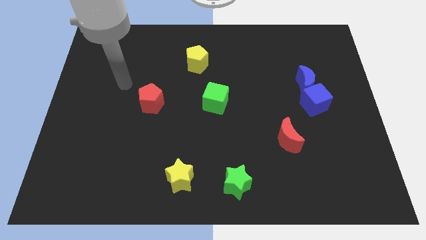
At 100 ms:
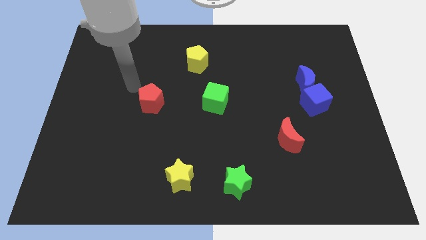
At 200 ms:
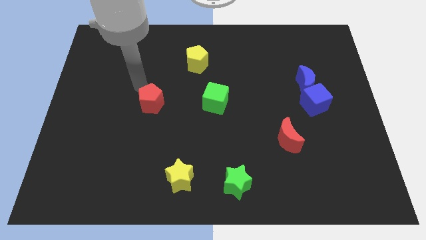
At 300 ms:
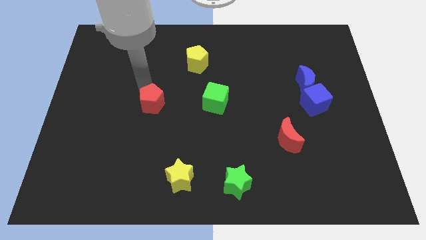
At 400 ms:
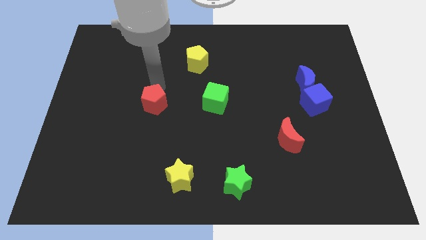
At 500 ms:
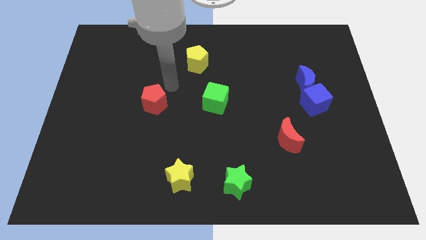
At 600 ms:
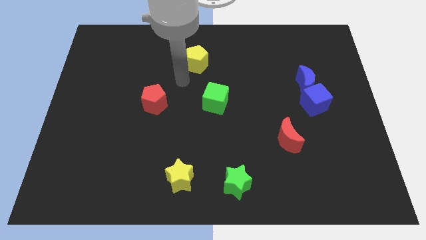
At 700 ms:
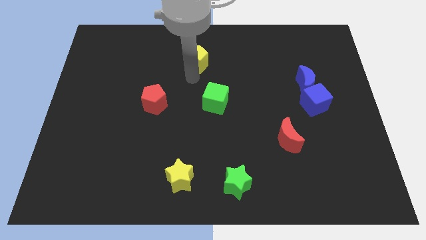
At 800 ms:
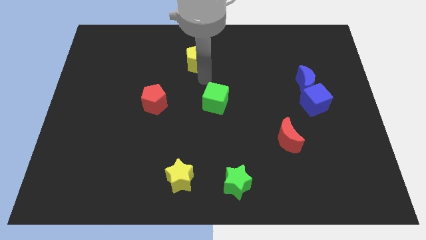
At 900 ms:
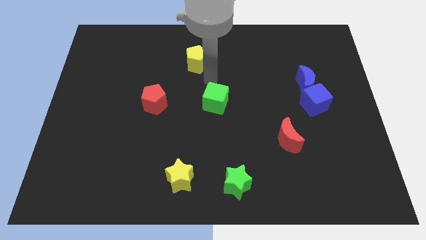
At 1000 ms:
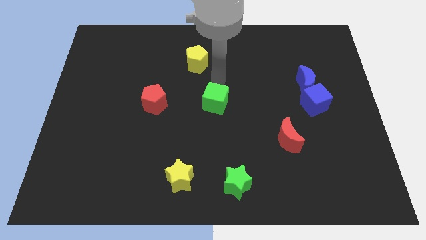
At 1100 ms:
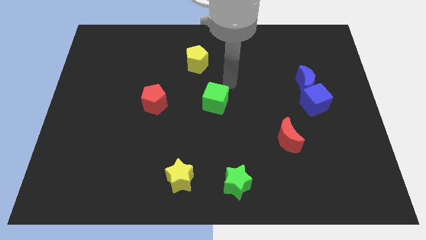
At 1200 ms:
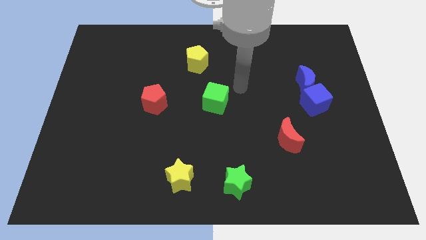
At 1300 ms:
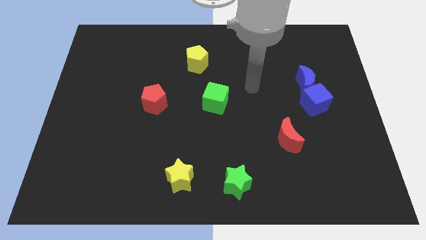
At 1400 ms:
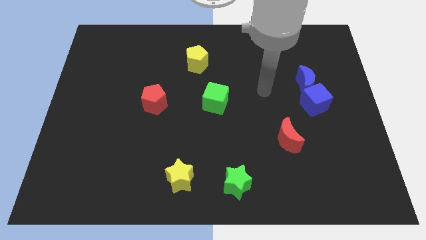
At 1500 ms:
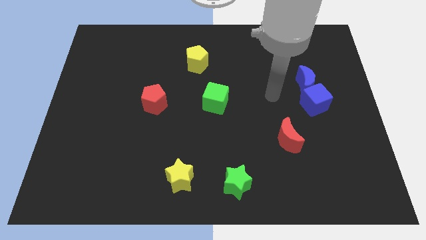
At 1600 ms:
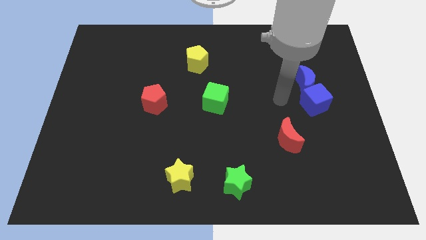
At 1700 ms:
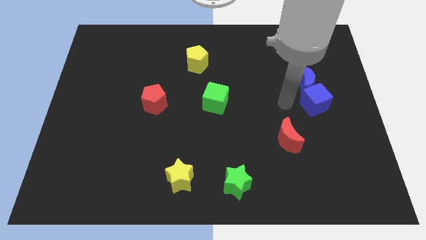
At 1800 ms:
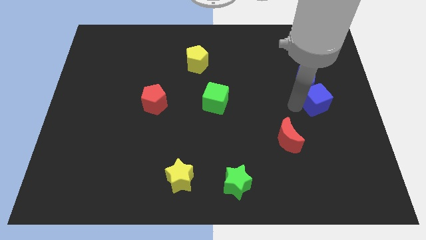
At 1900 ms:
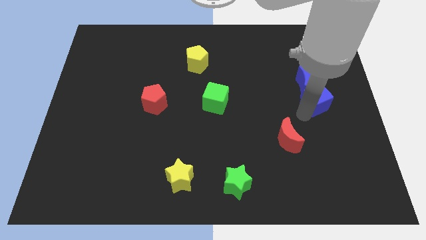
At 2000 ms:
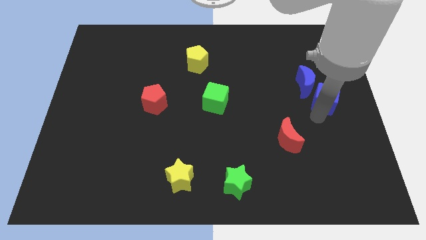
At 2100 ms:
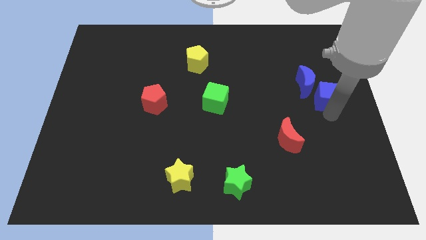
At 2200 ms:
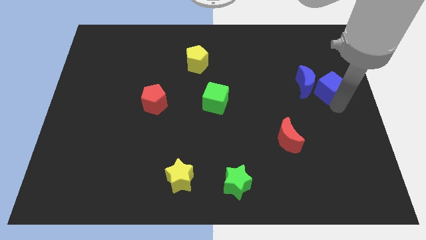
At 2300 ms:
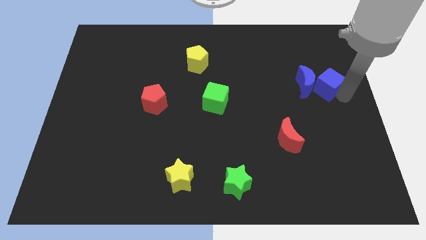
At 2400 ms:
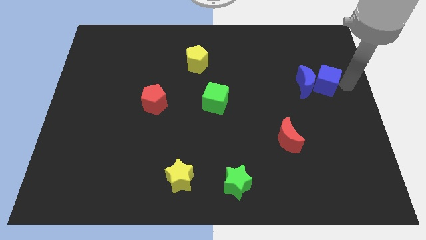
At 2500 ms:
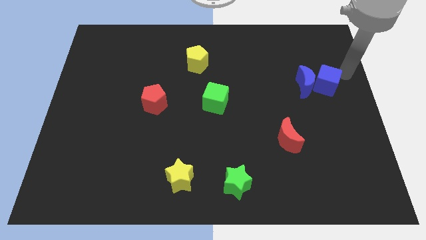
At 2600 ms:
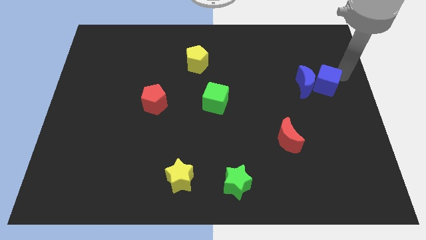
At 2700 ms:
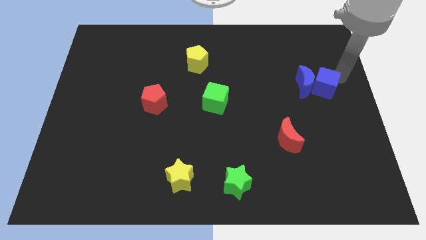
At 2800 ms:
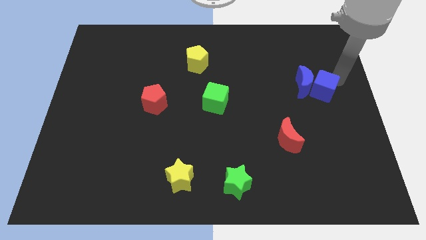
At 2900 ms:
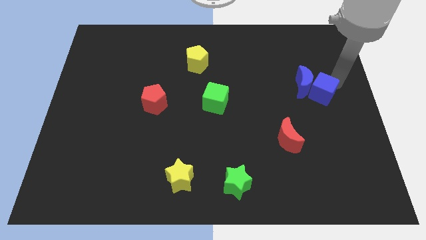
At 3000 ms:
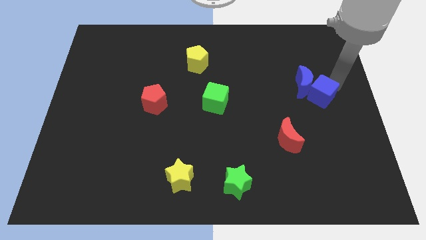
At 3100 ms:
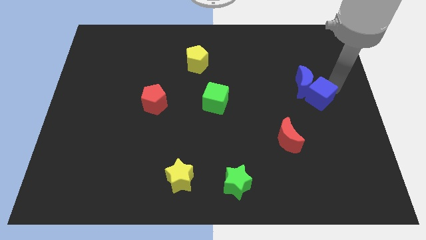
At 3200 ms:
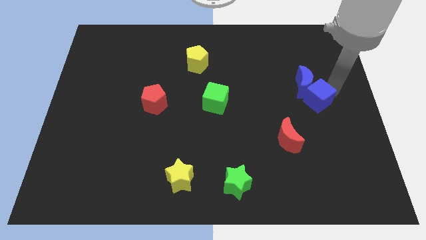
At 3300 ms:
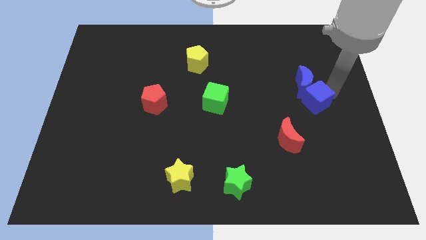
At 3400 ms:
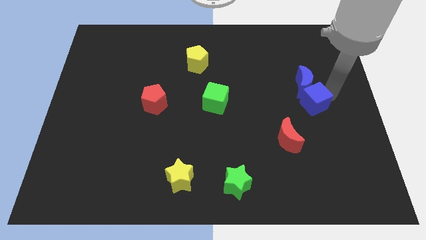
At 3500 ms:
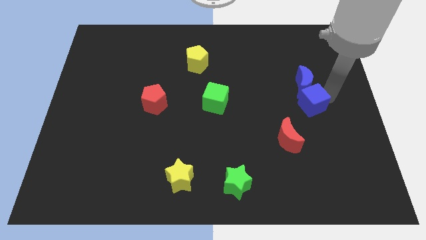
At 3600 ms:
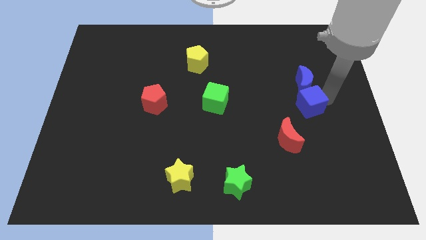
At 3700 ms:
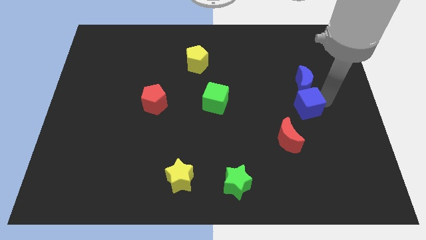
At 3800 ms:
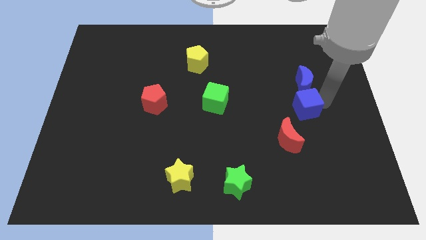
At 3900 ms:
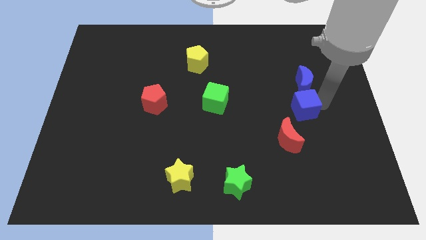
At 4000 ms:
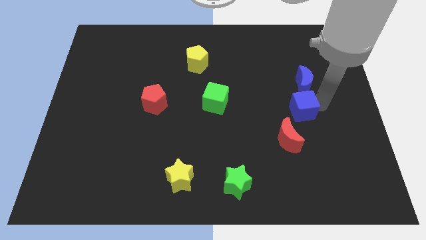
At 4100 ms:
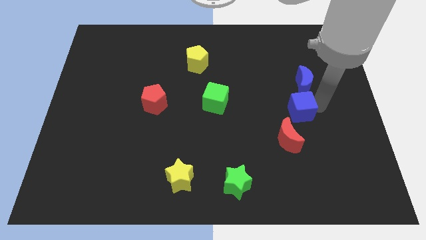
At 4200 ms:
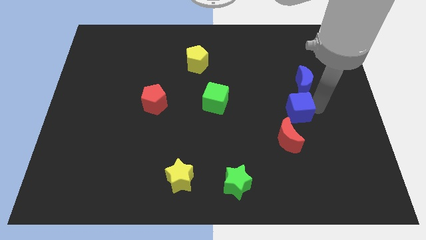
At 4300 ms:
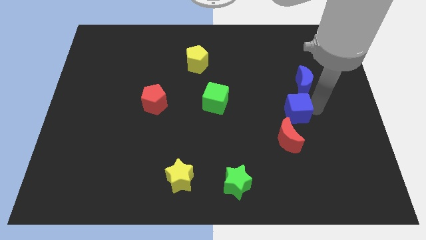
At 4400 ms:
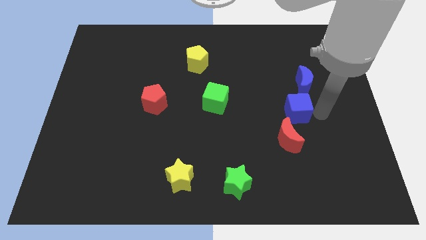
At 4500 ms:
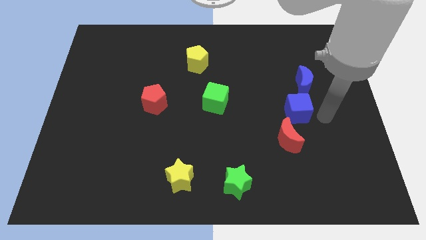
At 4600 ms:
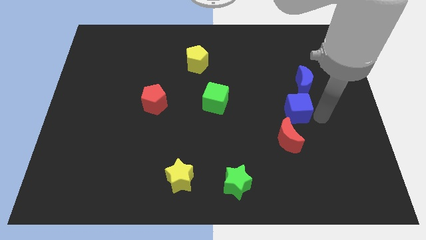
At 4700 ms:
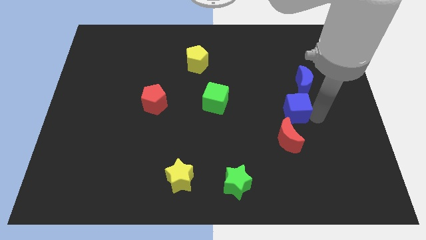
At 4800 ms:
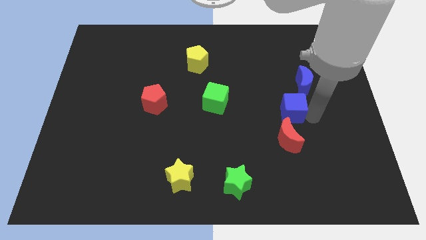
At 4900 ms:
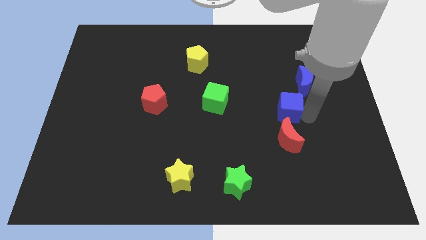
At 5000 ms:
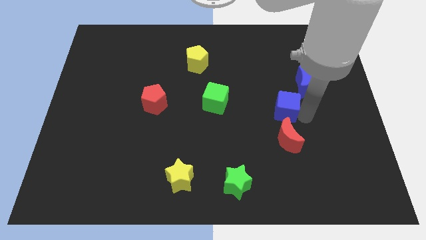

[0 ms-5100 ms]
slide the blue cube a bit to the left

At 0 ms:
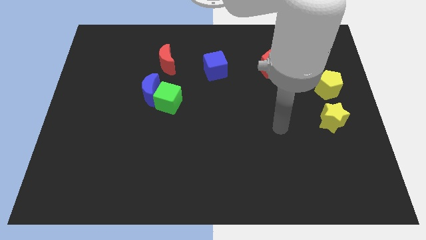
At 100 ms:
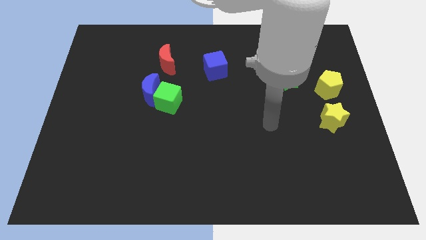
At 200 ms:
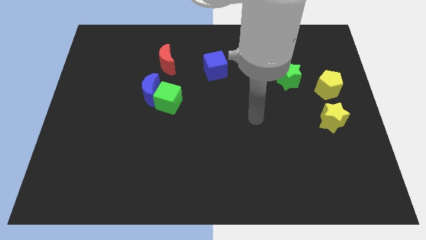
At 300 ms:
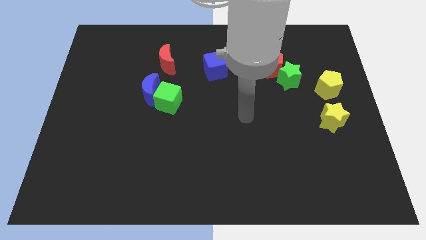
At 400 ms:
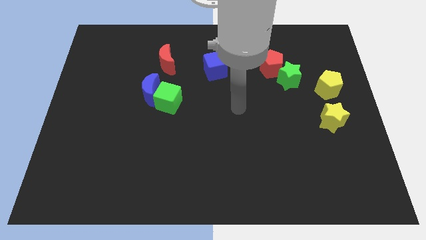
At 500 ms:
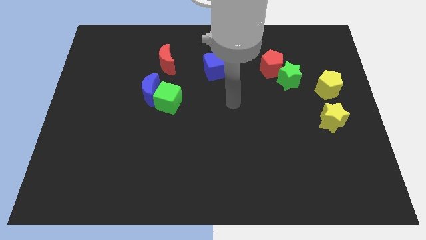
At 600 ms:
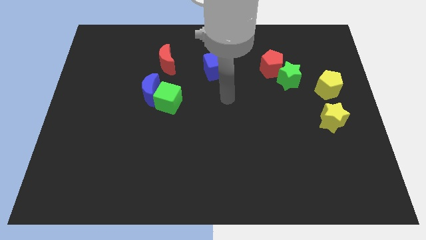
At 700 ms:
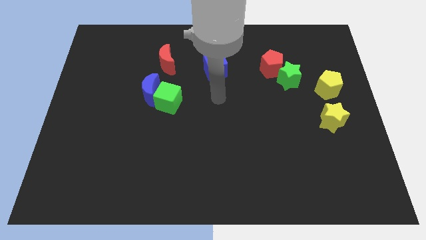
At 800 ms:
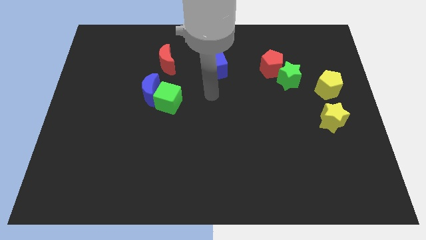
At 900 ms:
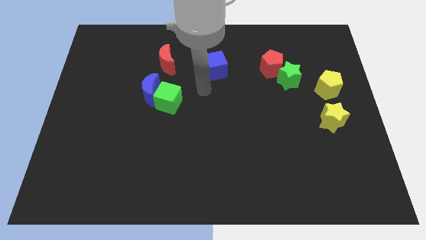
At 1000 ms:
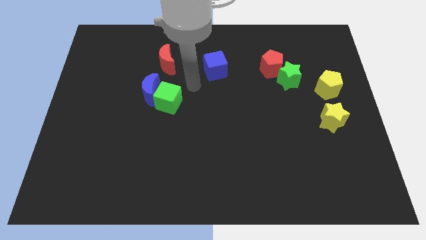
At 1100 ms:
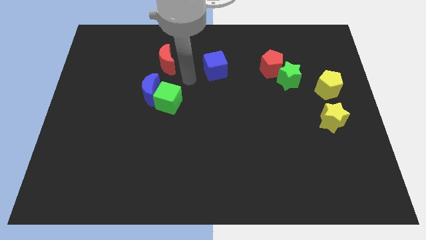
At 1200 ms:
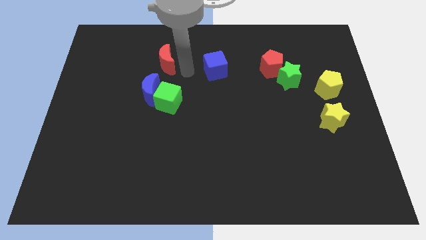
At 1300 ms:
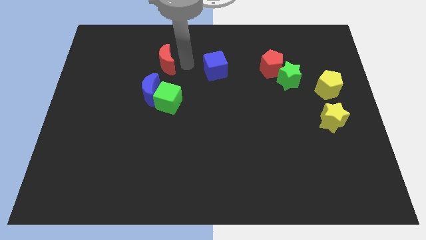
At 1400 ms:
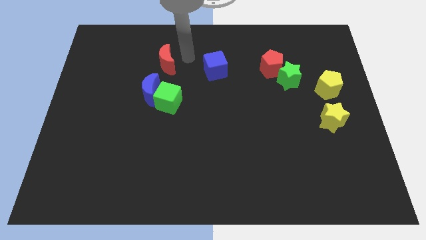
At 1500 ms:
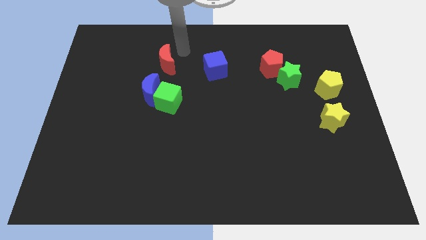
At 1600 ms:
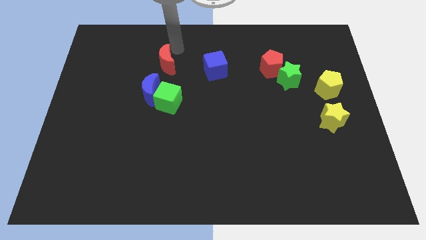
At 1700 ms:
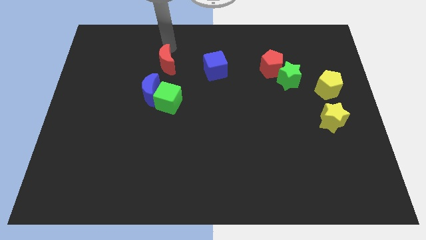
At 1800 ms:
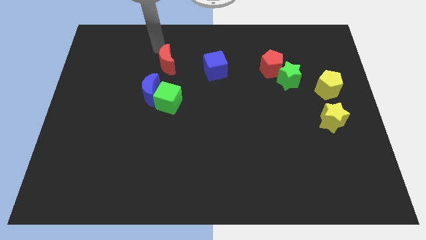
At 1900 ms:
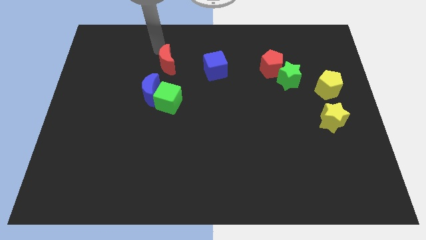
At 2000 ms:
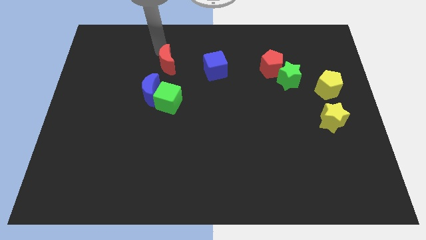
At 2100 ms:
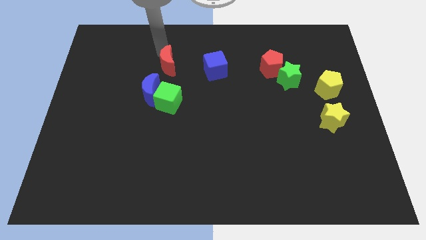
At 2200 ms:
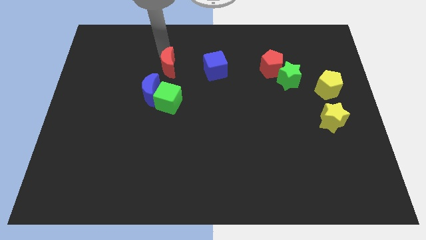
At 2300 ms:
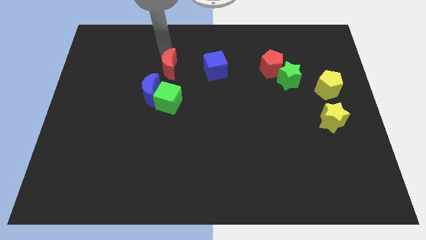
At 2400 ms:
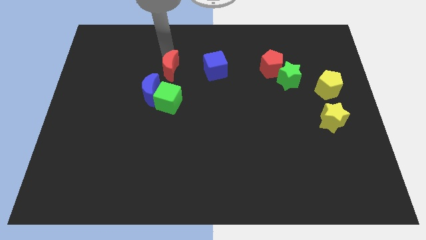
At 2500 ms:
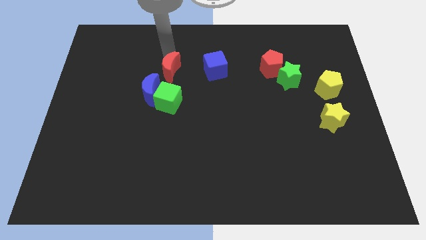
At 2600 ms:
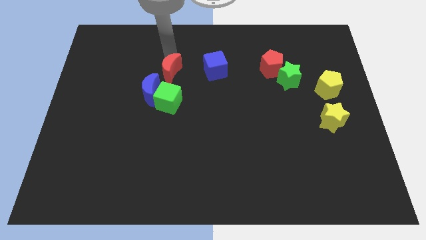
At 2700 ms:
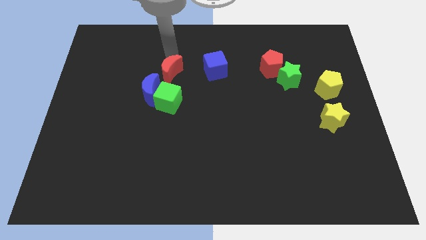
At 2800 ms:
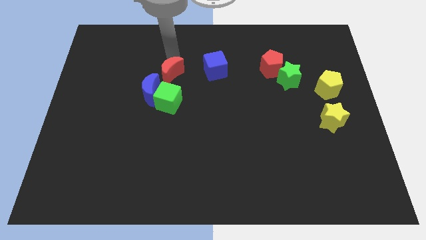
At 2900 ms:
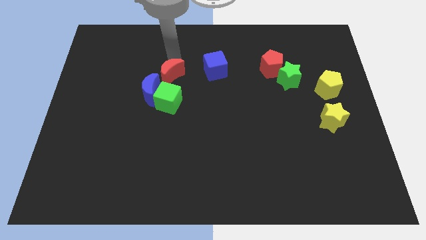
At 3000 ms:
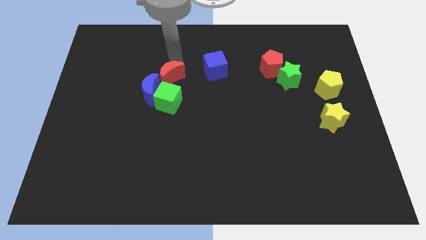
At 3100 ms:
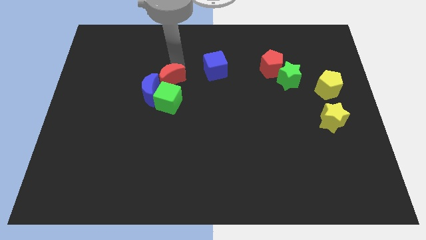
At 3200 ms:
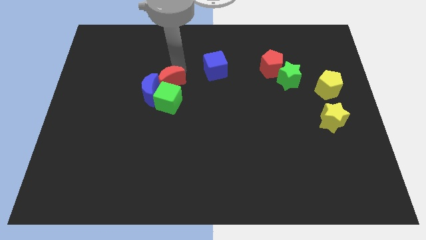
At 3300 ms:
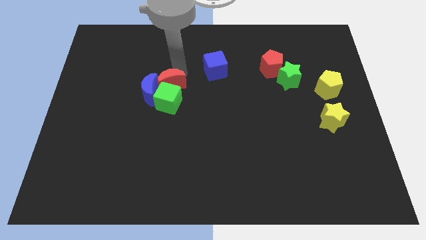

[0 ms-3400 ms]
slide the red moon down somewhat
